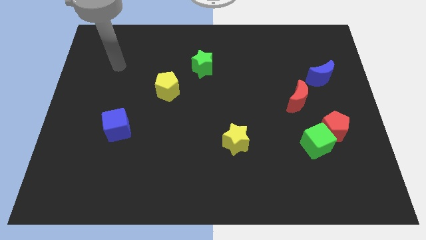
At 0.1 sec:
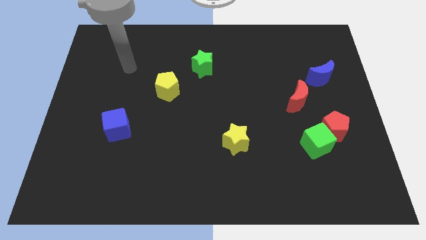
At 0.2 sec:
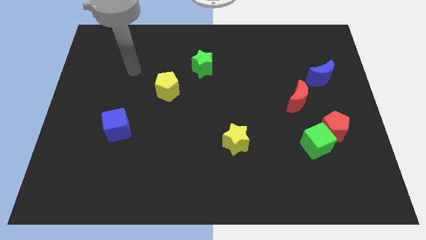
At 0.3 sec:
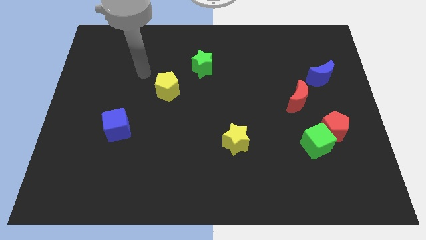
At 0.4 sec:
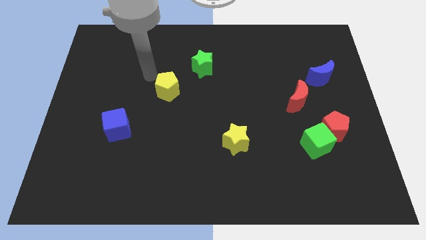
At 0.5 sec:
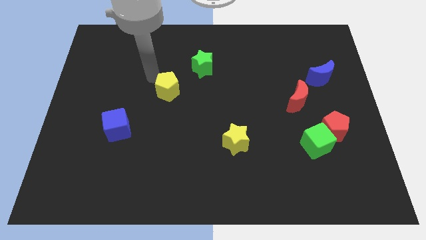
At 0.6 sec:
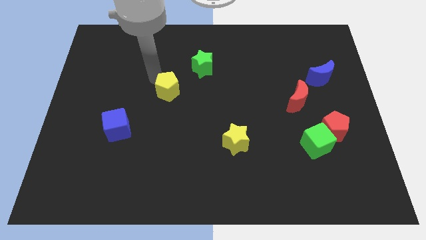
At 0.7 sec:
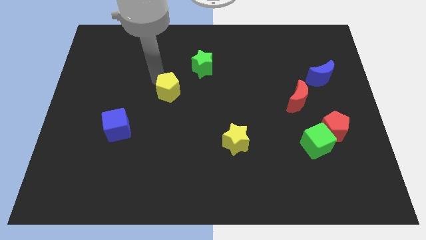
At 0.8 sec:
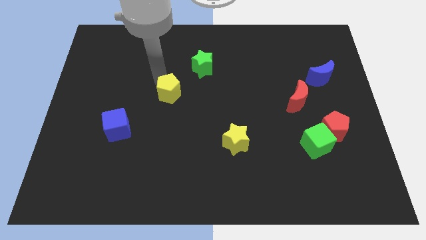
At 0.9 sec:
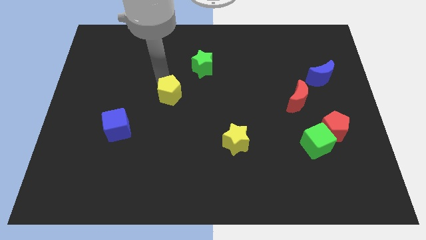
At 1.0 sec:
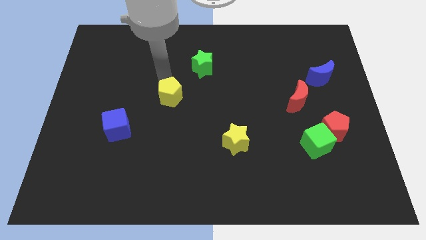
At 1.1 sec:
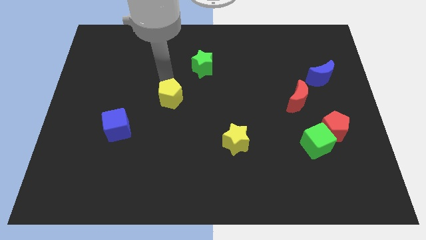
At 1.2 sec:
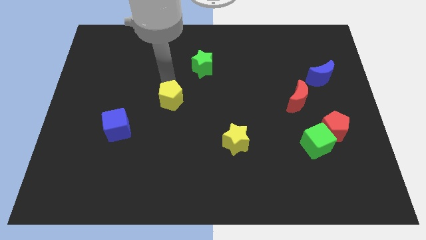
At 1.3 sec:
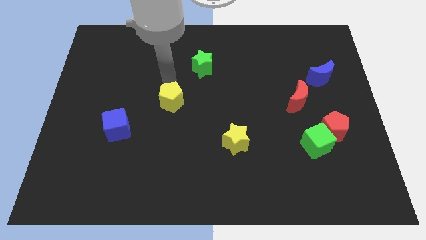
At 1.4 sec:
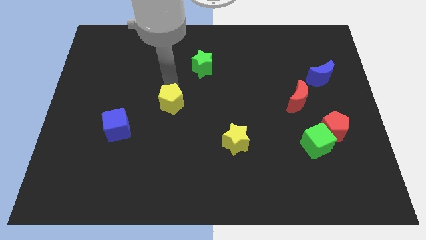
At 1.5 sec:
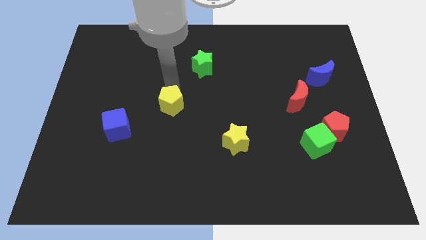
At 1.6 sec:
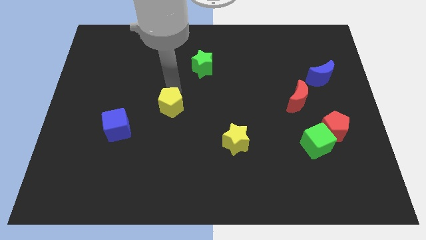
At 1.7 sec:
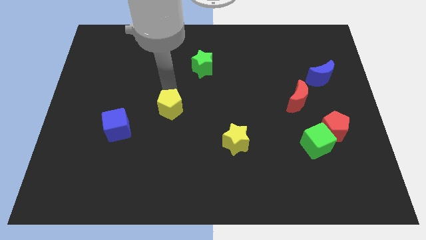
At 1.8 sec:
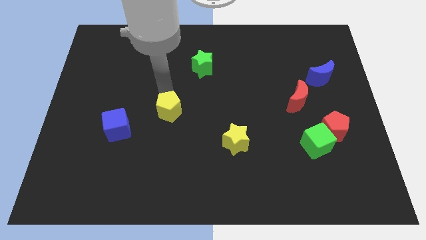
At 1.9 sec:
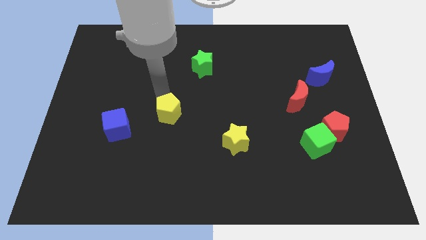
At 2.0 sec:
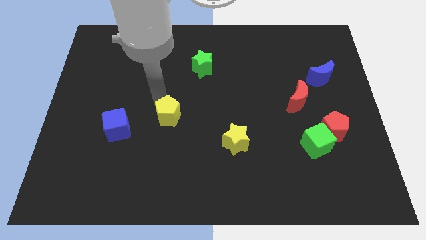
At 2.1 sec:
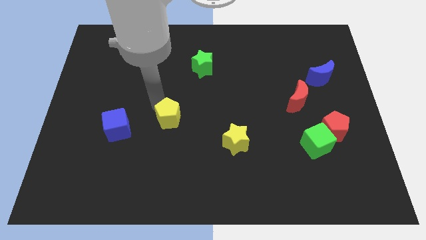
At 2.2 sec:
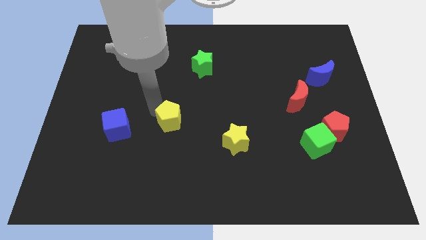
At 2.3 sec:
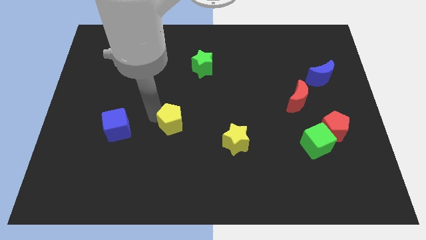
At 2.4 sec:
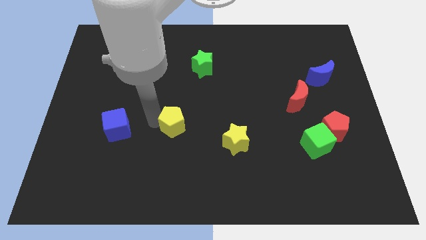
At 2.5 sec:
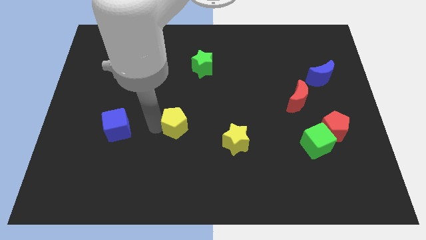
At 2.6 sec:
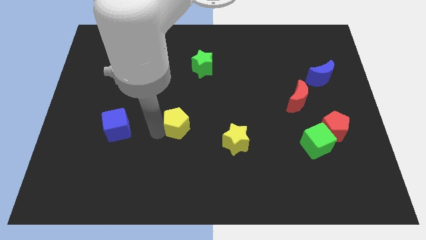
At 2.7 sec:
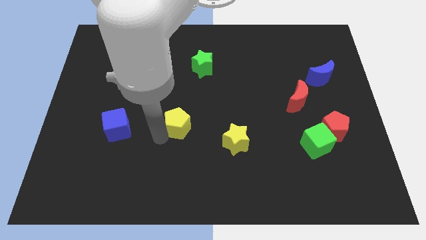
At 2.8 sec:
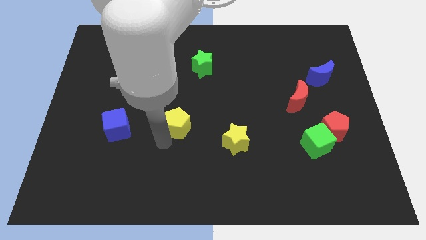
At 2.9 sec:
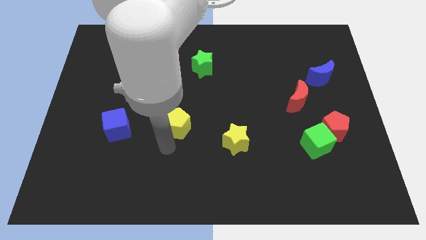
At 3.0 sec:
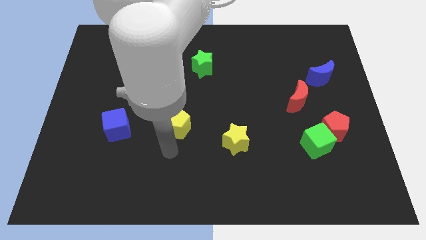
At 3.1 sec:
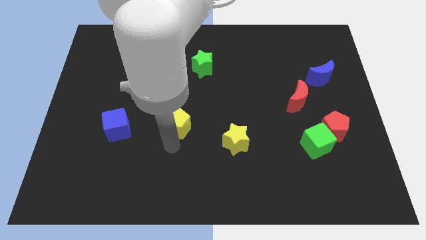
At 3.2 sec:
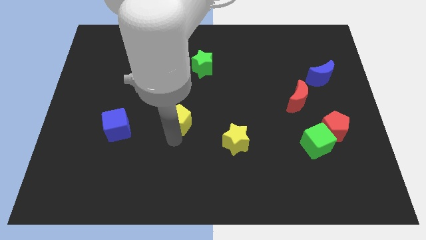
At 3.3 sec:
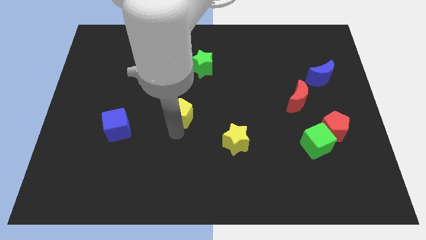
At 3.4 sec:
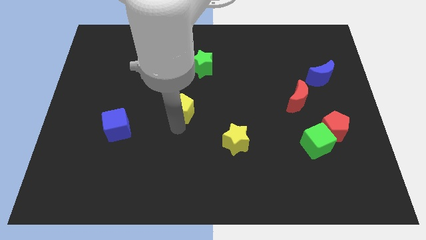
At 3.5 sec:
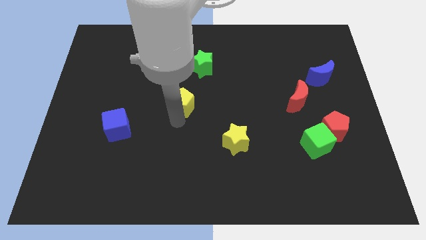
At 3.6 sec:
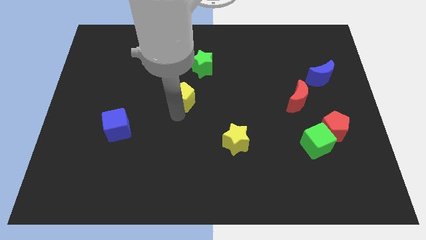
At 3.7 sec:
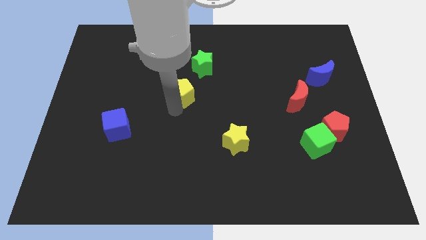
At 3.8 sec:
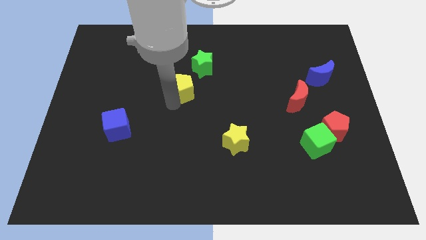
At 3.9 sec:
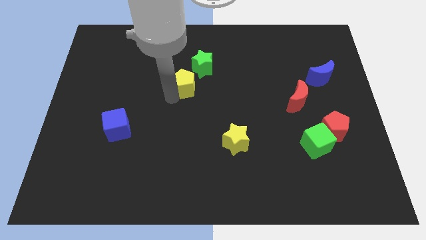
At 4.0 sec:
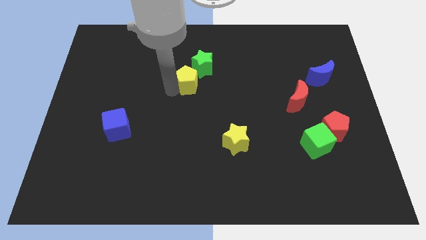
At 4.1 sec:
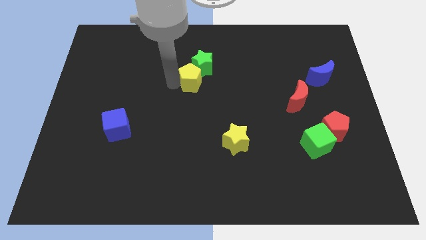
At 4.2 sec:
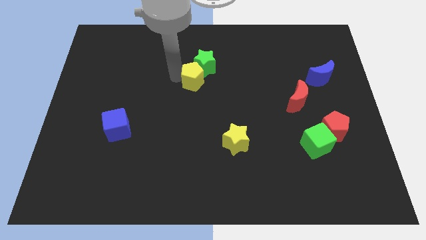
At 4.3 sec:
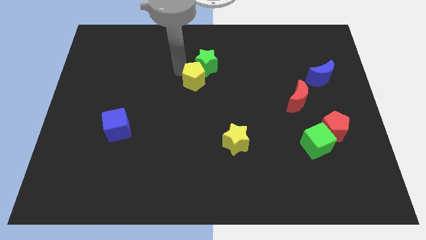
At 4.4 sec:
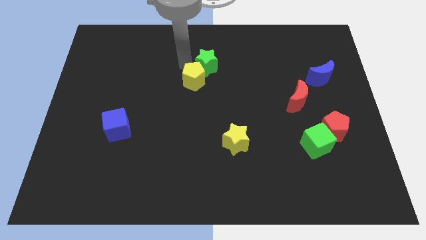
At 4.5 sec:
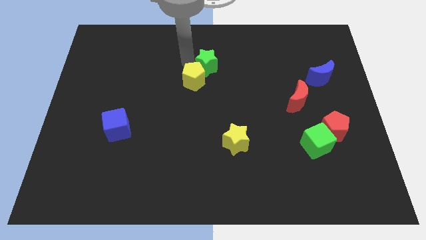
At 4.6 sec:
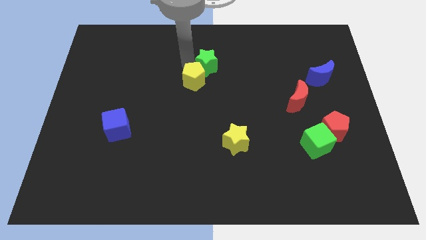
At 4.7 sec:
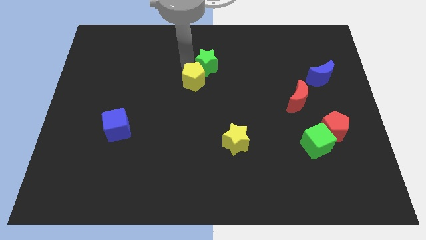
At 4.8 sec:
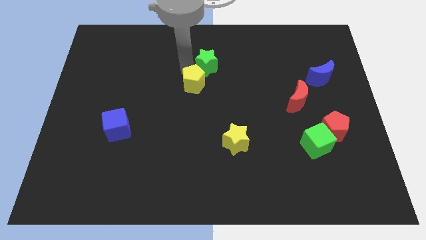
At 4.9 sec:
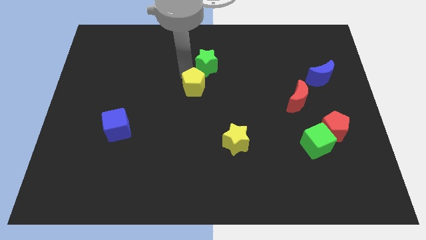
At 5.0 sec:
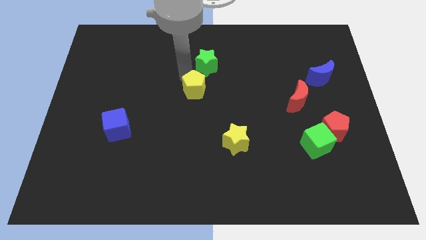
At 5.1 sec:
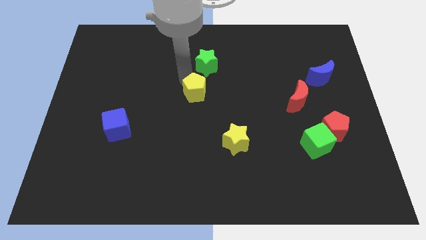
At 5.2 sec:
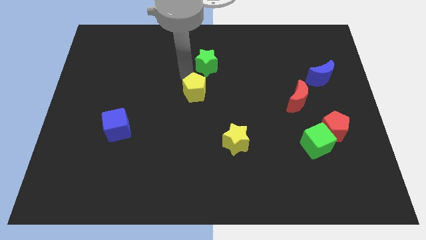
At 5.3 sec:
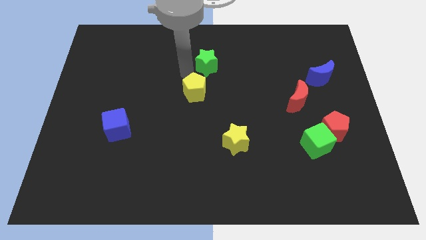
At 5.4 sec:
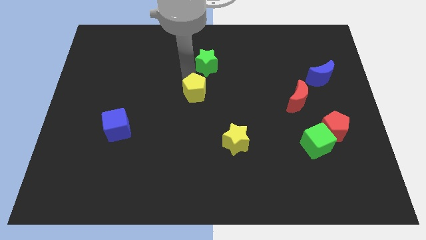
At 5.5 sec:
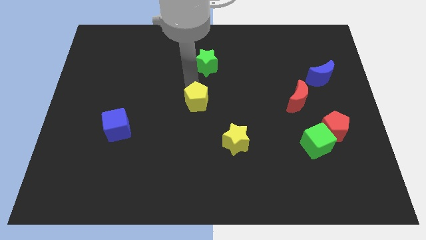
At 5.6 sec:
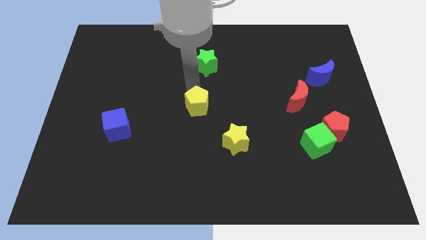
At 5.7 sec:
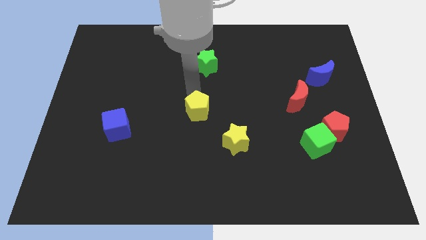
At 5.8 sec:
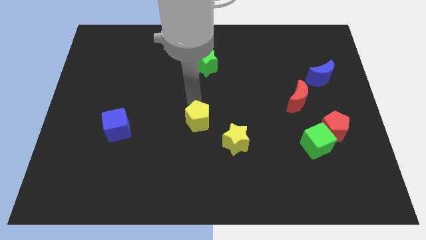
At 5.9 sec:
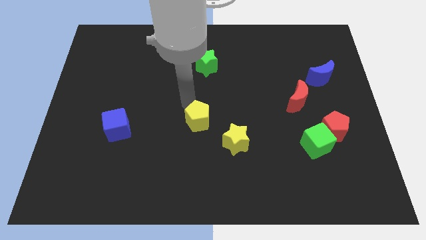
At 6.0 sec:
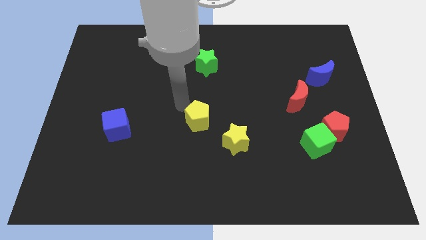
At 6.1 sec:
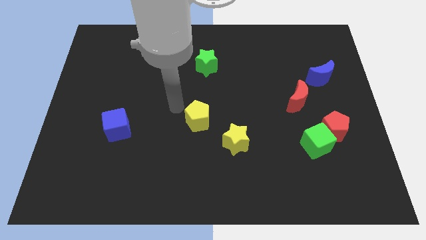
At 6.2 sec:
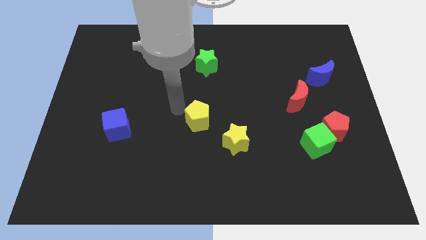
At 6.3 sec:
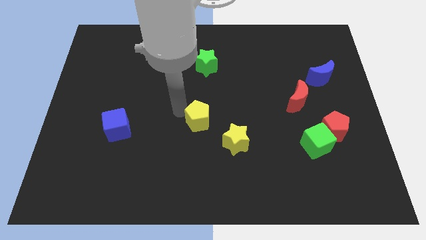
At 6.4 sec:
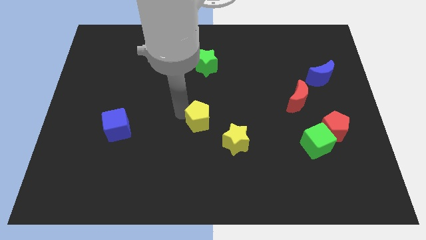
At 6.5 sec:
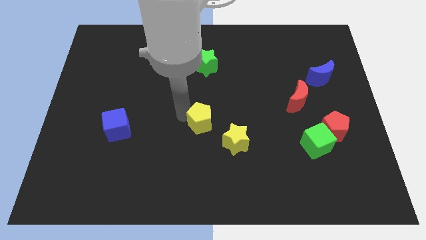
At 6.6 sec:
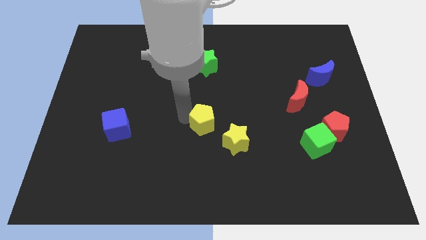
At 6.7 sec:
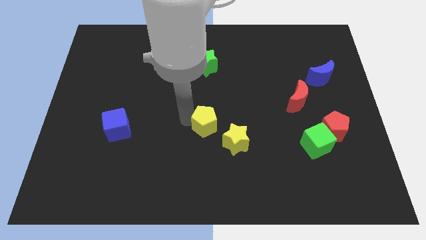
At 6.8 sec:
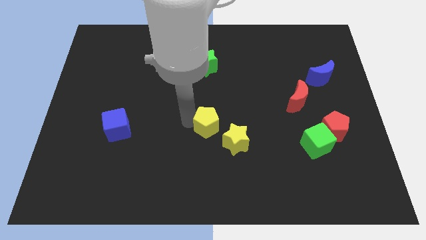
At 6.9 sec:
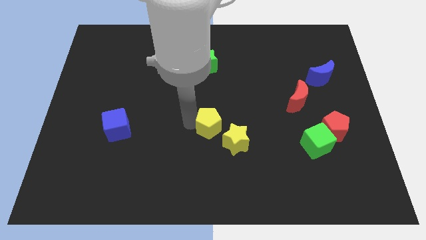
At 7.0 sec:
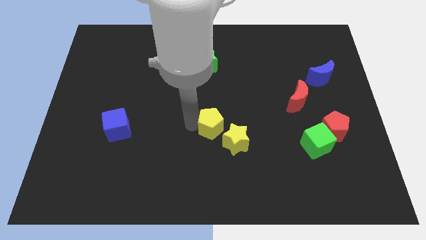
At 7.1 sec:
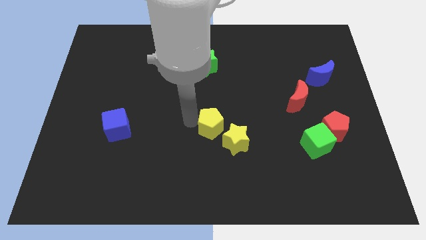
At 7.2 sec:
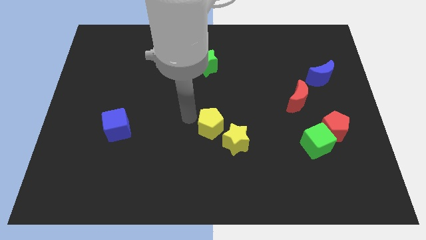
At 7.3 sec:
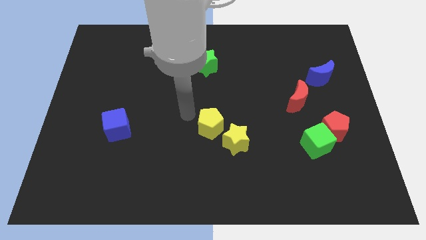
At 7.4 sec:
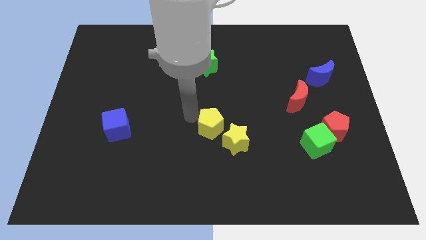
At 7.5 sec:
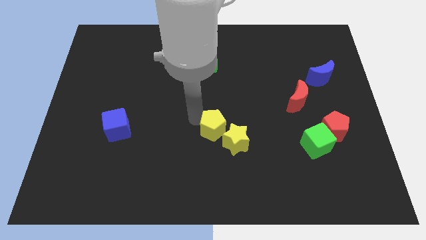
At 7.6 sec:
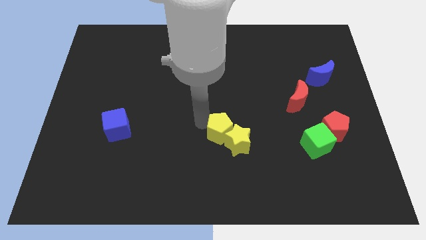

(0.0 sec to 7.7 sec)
slide the yellow pentagon to the yellow star
